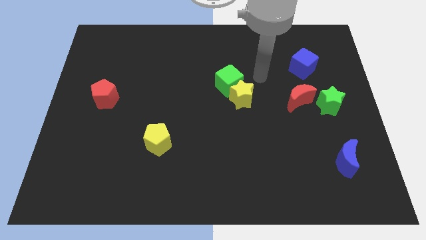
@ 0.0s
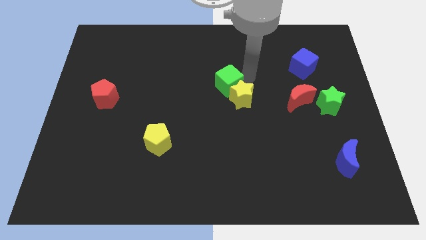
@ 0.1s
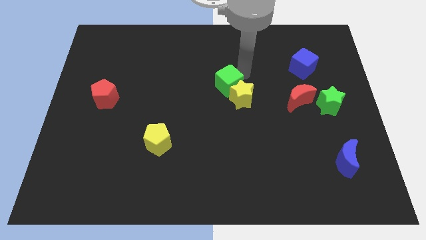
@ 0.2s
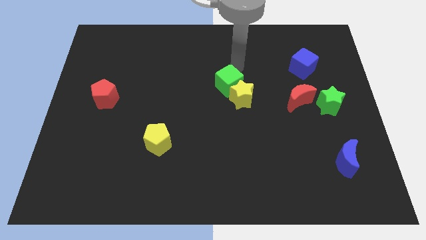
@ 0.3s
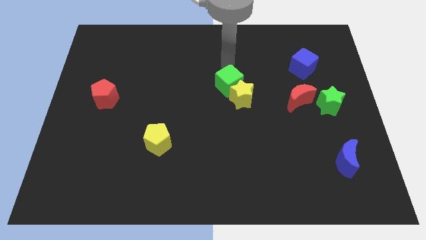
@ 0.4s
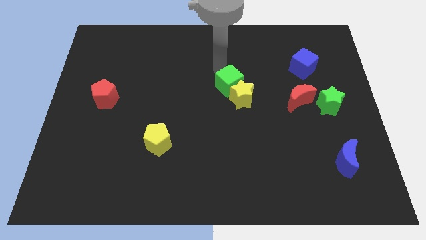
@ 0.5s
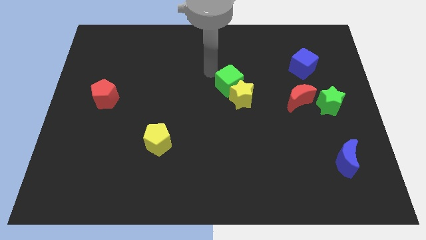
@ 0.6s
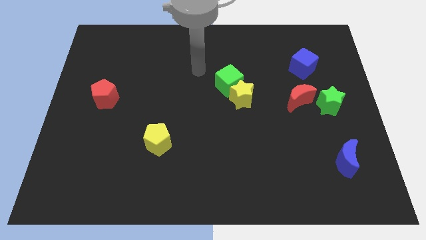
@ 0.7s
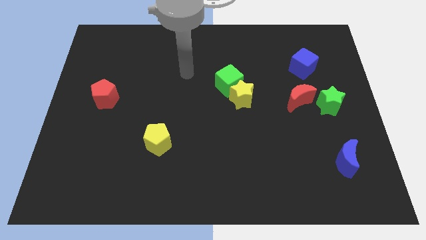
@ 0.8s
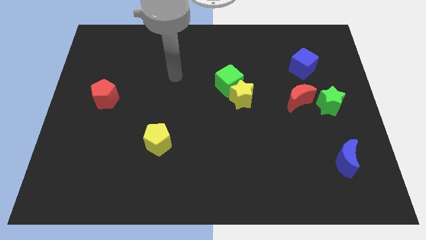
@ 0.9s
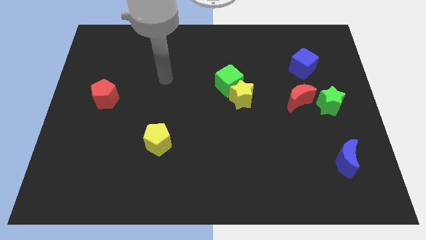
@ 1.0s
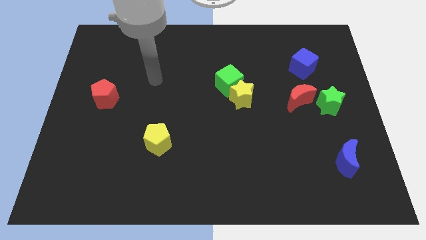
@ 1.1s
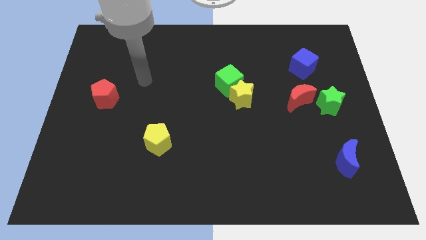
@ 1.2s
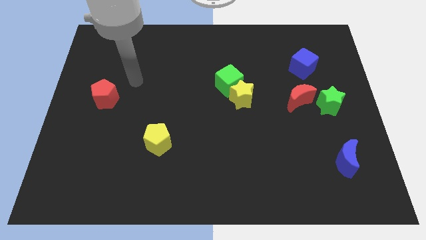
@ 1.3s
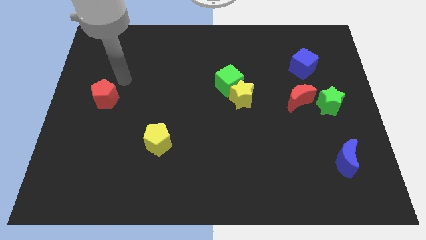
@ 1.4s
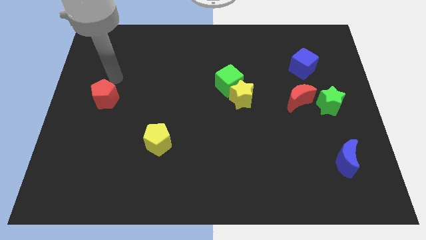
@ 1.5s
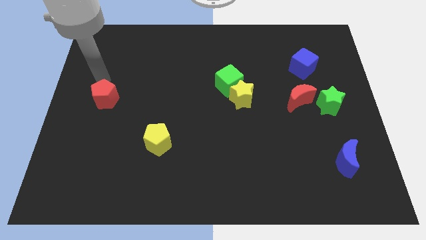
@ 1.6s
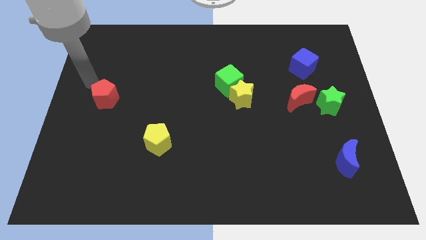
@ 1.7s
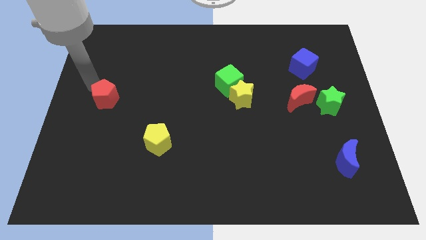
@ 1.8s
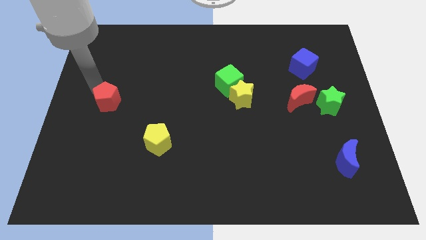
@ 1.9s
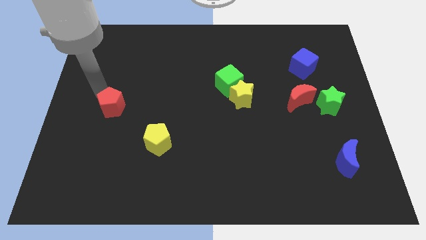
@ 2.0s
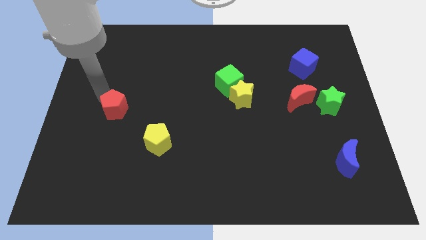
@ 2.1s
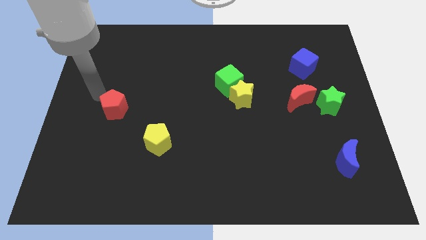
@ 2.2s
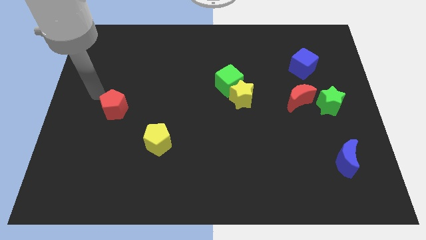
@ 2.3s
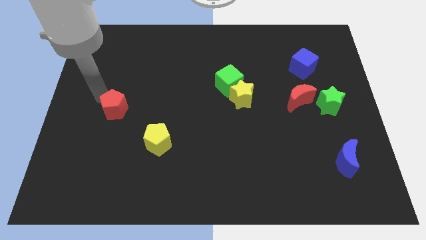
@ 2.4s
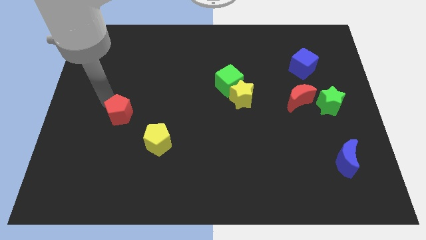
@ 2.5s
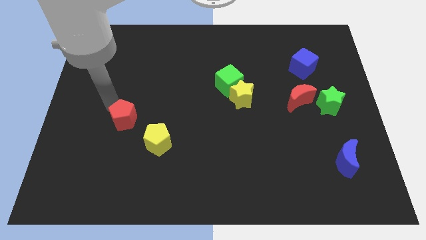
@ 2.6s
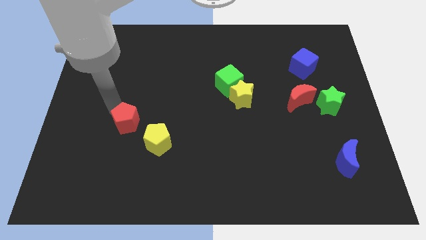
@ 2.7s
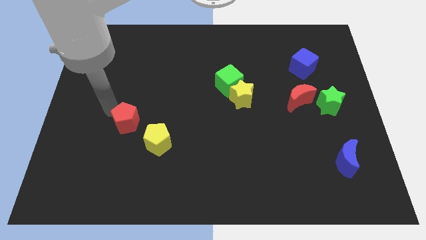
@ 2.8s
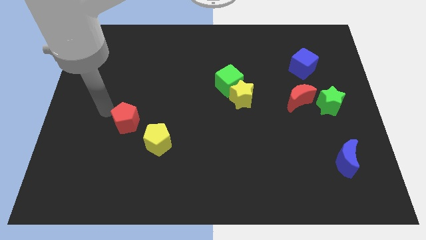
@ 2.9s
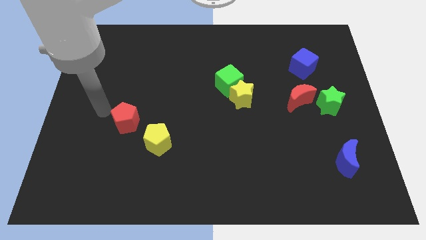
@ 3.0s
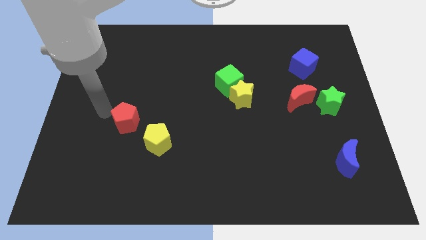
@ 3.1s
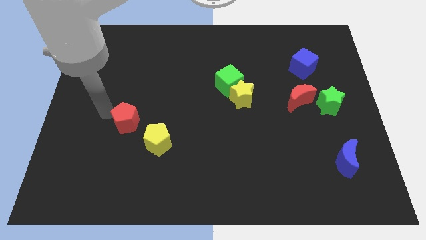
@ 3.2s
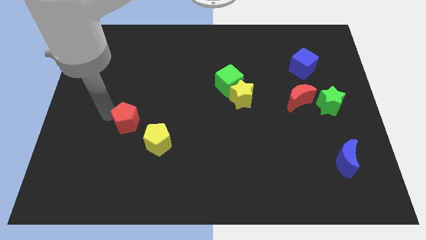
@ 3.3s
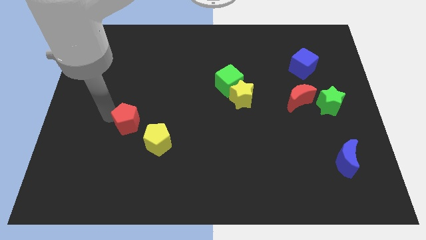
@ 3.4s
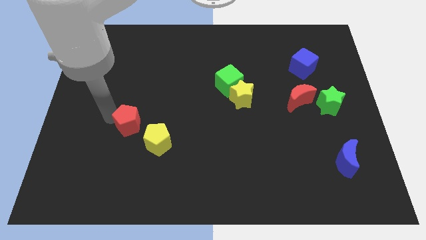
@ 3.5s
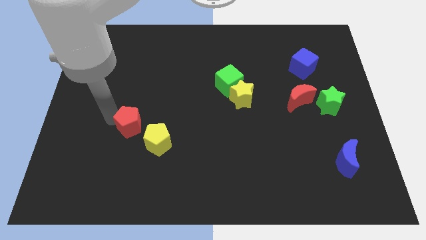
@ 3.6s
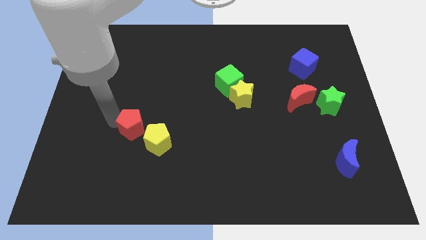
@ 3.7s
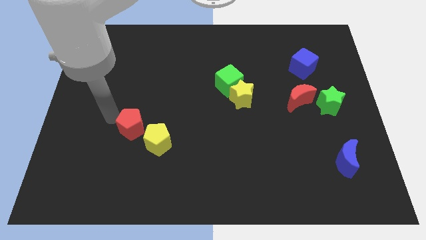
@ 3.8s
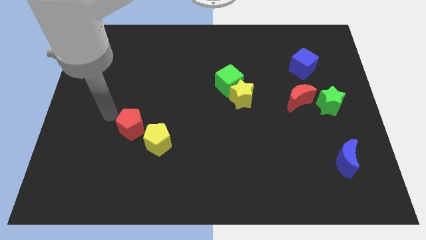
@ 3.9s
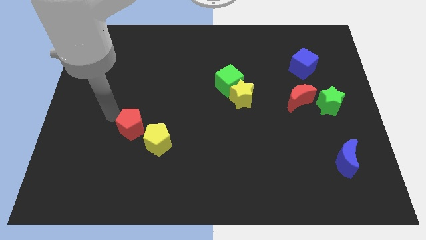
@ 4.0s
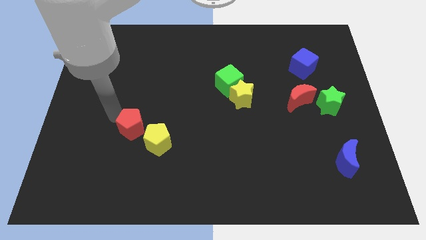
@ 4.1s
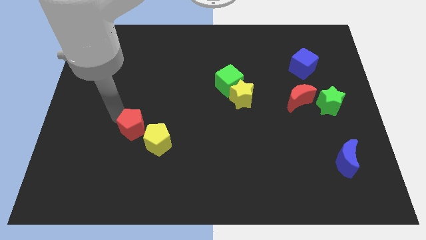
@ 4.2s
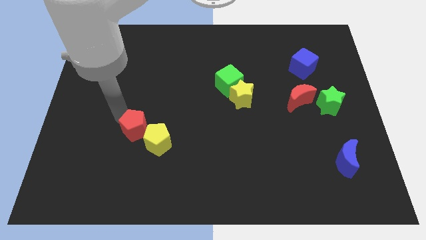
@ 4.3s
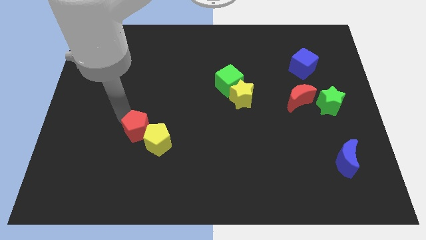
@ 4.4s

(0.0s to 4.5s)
slide the red pentagon to the yellow pentagon

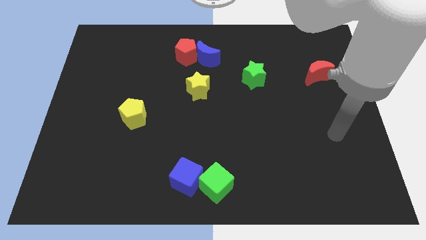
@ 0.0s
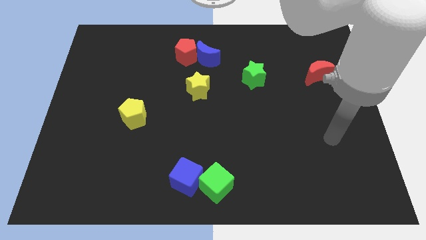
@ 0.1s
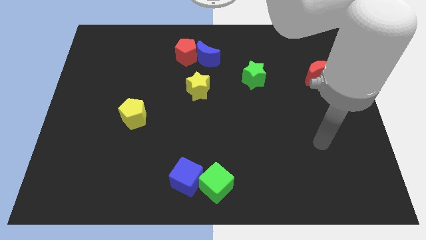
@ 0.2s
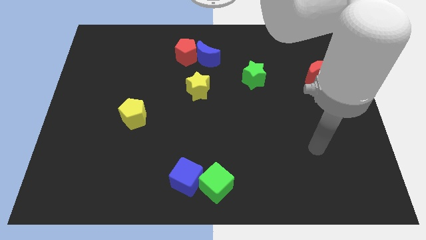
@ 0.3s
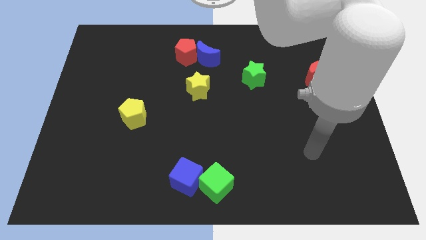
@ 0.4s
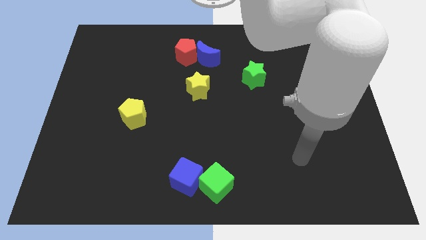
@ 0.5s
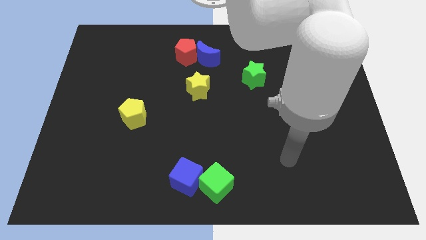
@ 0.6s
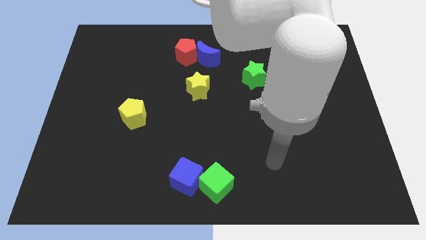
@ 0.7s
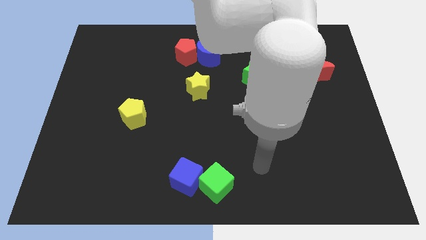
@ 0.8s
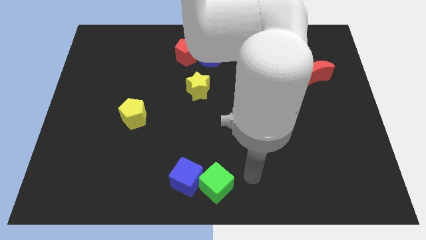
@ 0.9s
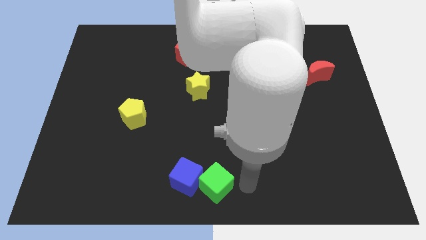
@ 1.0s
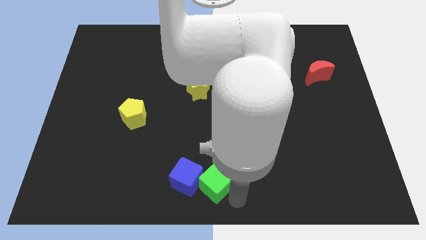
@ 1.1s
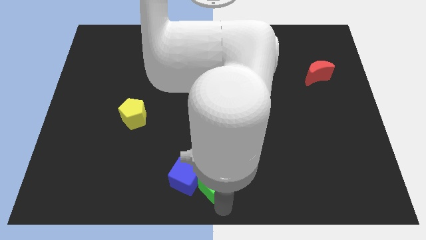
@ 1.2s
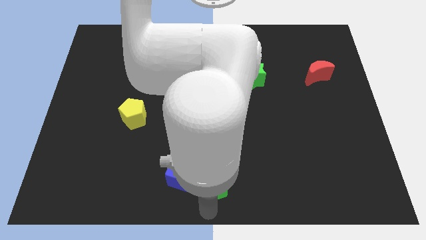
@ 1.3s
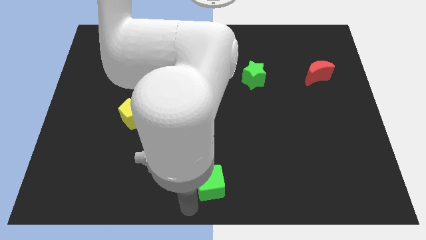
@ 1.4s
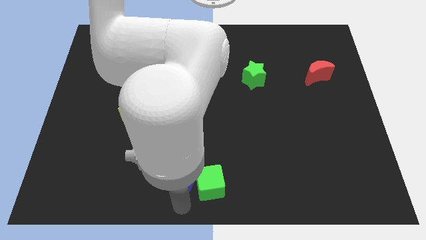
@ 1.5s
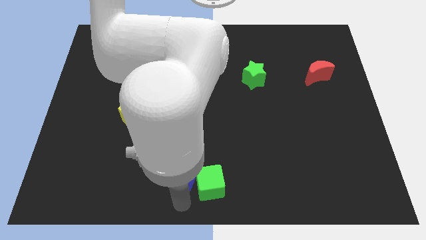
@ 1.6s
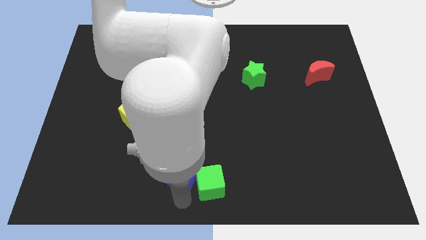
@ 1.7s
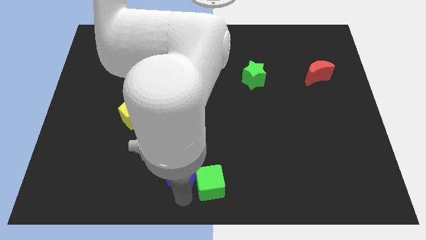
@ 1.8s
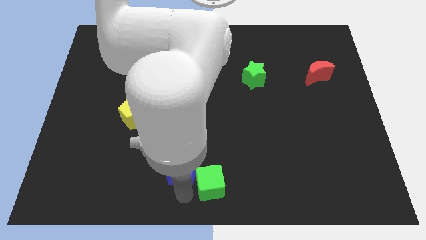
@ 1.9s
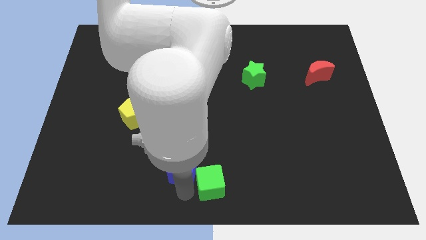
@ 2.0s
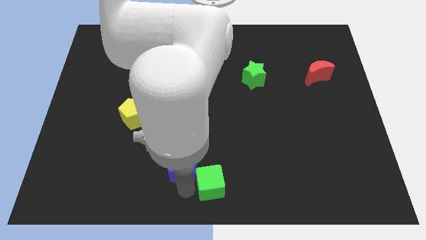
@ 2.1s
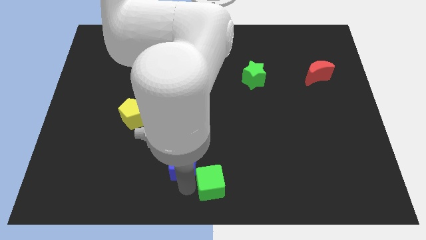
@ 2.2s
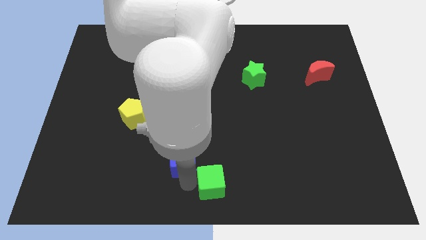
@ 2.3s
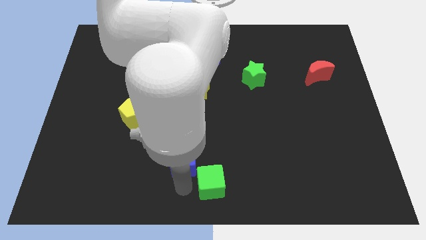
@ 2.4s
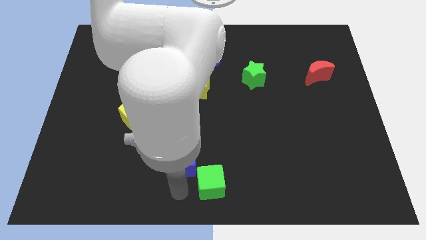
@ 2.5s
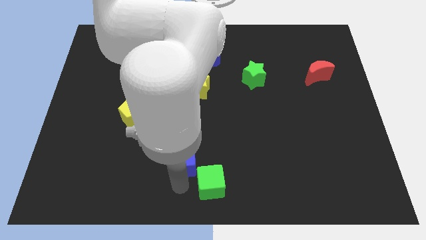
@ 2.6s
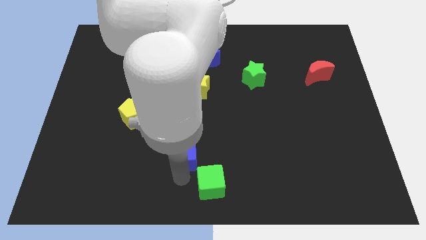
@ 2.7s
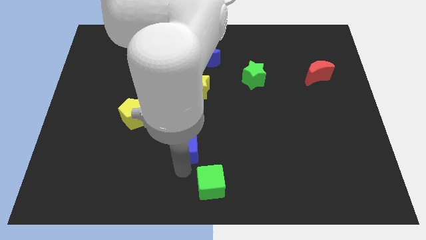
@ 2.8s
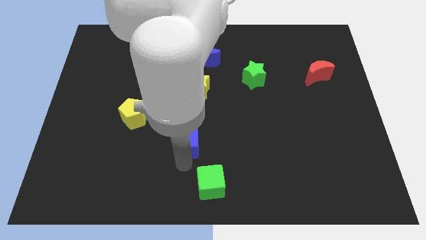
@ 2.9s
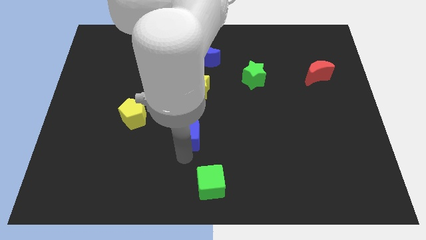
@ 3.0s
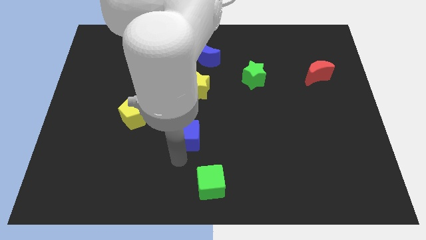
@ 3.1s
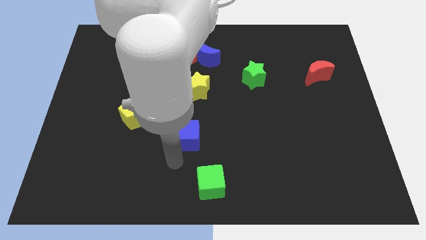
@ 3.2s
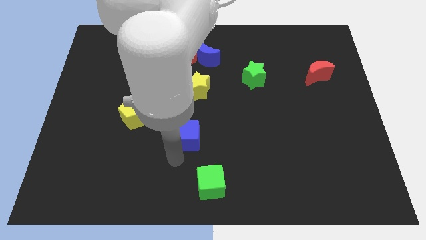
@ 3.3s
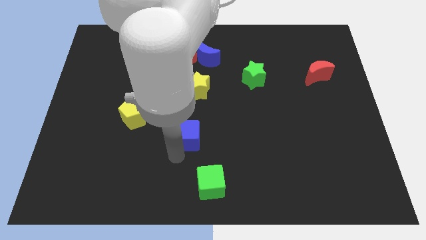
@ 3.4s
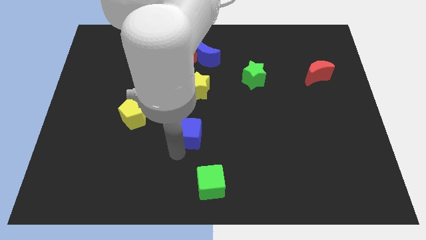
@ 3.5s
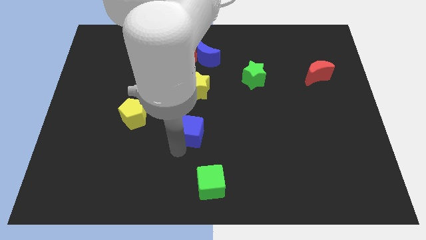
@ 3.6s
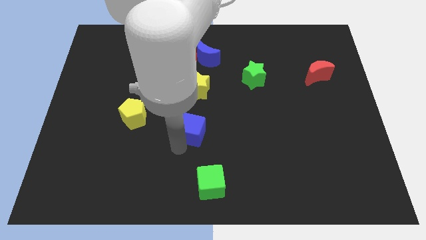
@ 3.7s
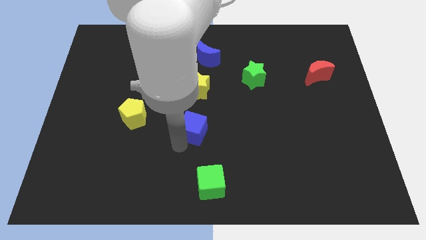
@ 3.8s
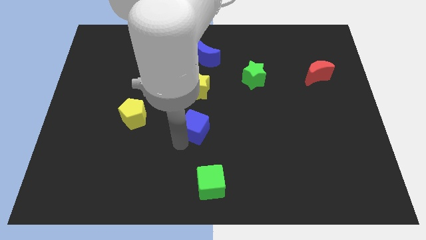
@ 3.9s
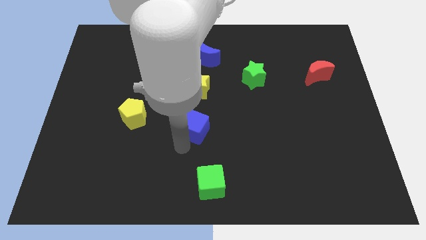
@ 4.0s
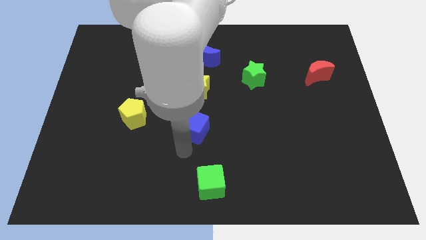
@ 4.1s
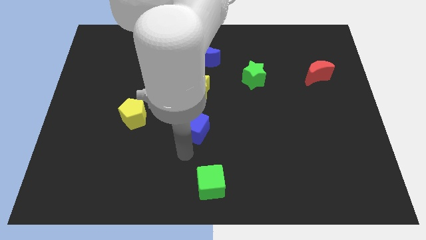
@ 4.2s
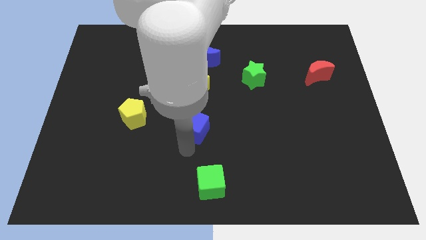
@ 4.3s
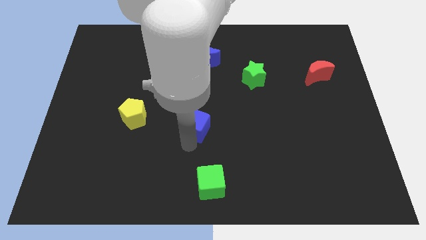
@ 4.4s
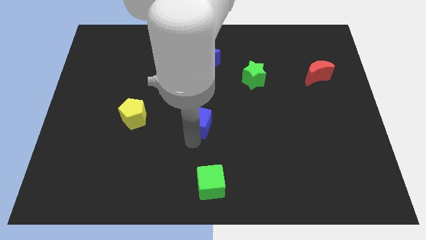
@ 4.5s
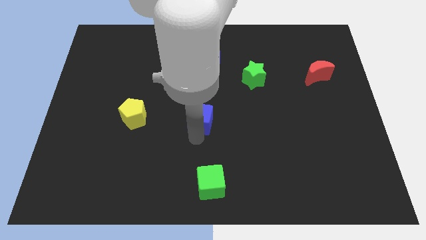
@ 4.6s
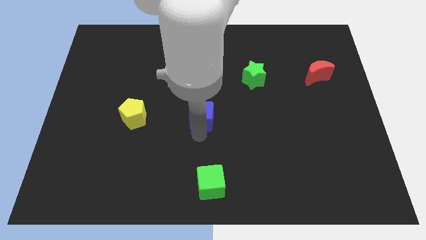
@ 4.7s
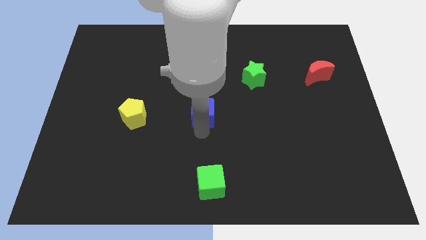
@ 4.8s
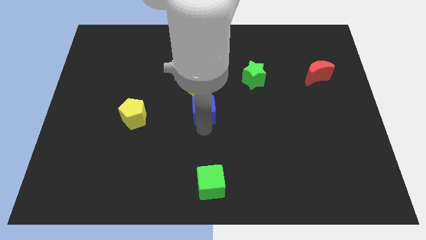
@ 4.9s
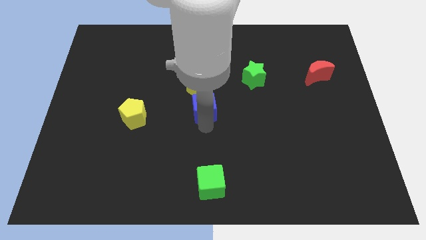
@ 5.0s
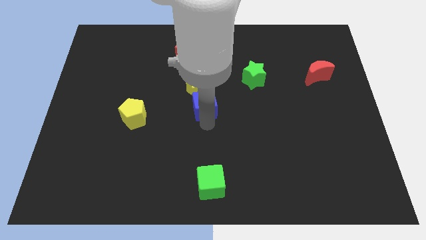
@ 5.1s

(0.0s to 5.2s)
slide the blue cube to the yellow star
